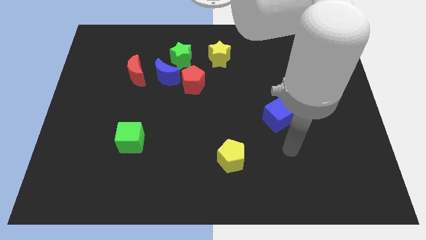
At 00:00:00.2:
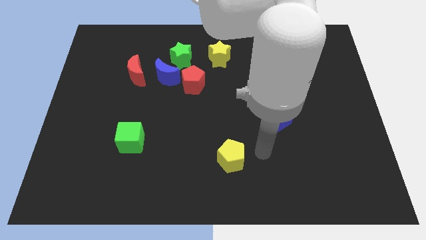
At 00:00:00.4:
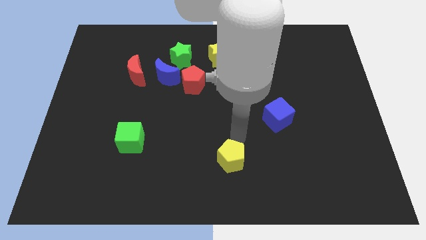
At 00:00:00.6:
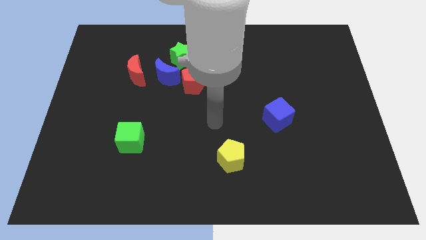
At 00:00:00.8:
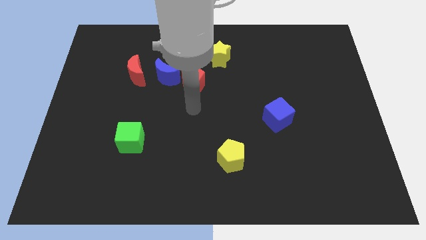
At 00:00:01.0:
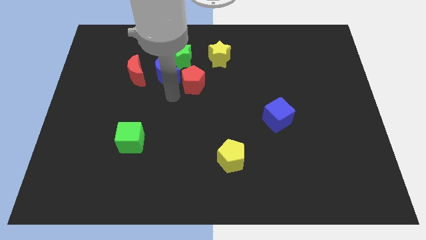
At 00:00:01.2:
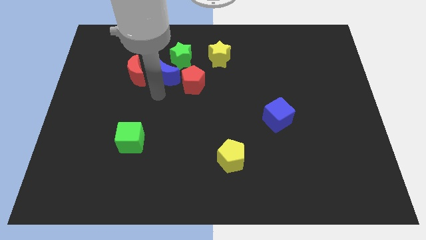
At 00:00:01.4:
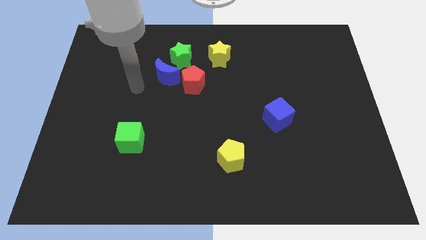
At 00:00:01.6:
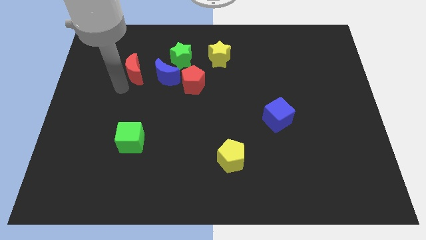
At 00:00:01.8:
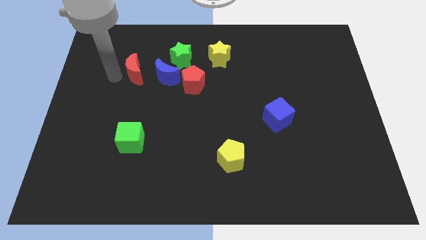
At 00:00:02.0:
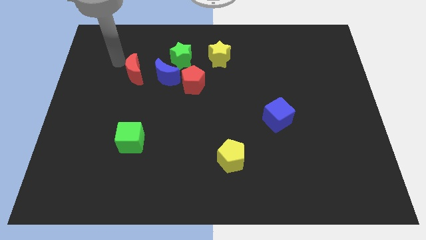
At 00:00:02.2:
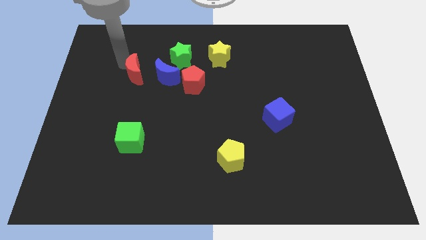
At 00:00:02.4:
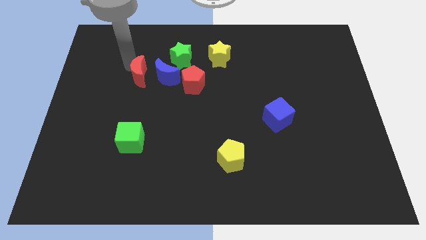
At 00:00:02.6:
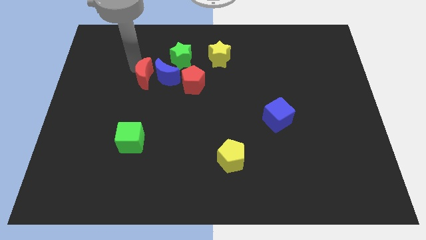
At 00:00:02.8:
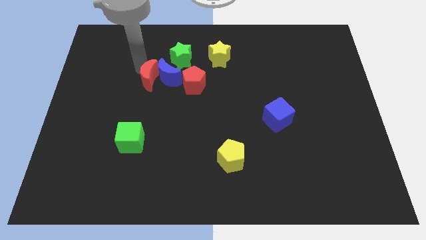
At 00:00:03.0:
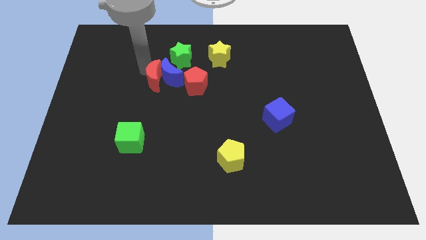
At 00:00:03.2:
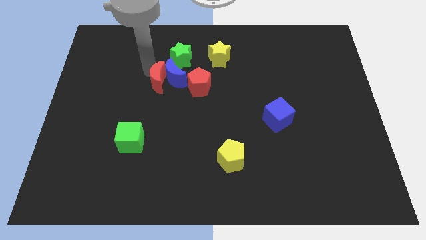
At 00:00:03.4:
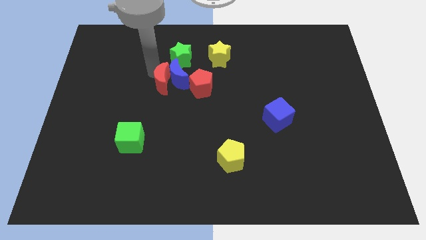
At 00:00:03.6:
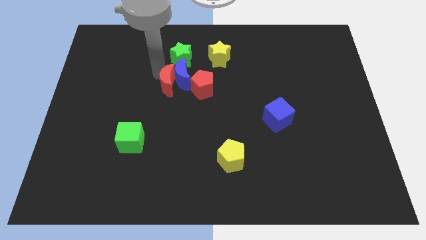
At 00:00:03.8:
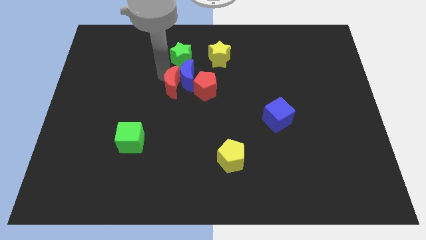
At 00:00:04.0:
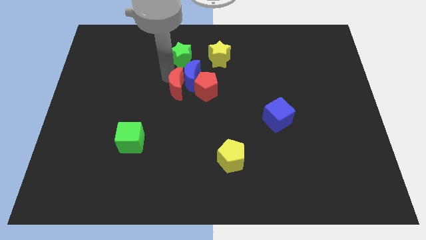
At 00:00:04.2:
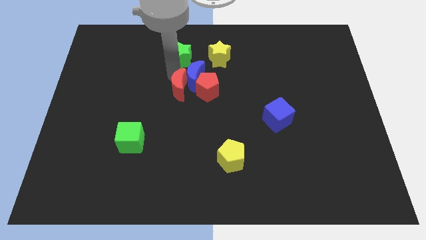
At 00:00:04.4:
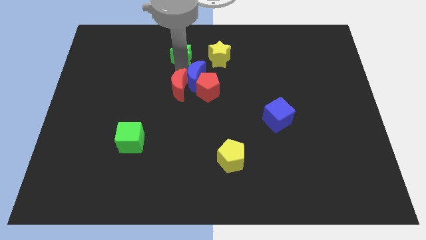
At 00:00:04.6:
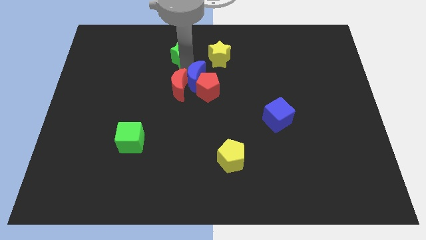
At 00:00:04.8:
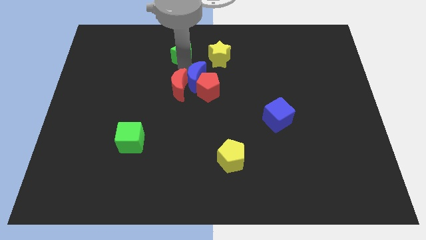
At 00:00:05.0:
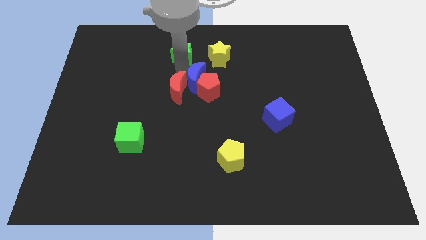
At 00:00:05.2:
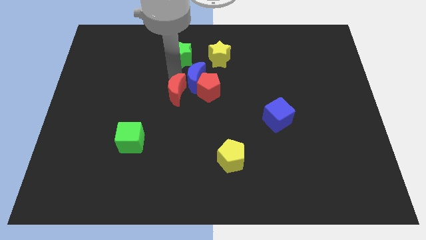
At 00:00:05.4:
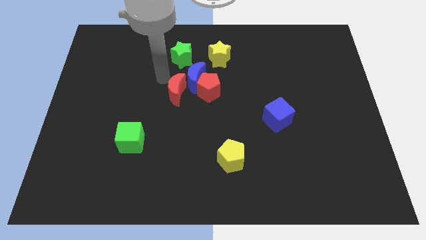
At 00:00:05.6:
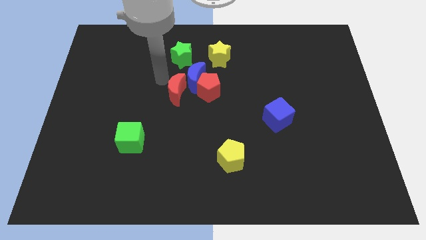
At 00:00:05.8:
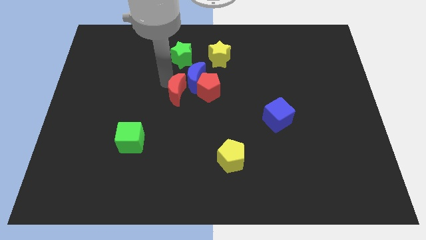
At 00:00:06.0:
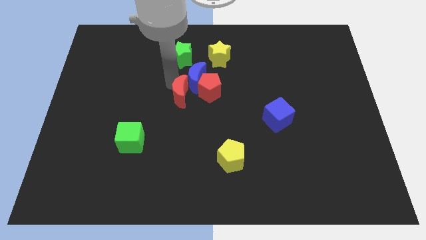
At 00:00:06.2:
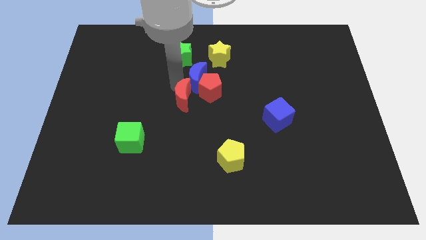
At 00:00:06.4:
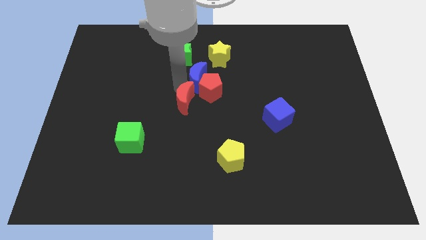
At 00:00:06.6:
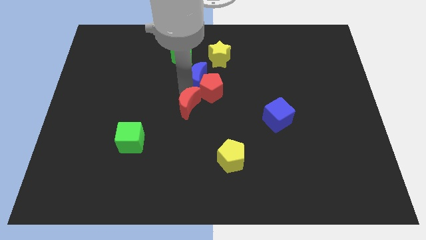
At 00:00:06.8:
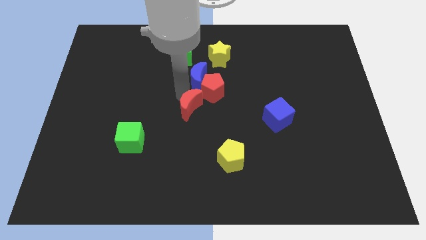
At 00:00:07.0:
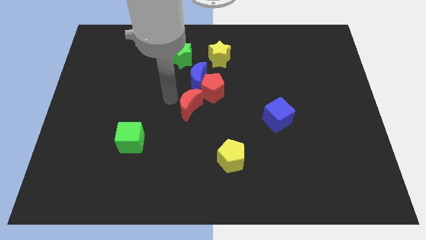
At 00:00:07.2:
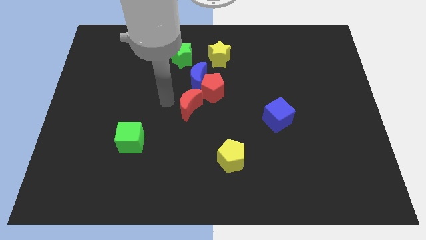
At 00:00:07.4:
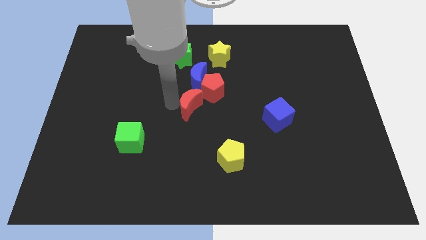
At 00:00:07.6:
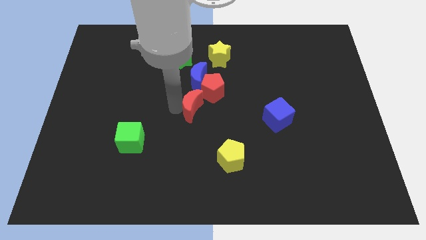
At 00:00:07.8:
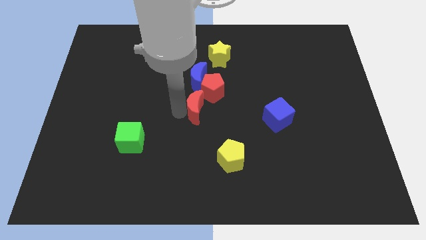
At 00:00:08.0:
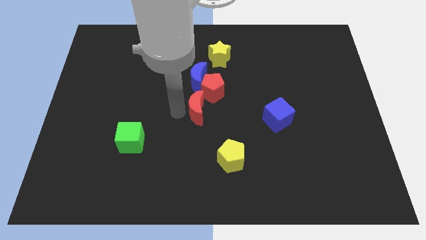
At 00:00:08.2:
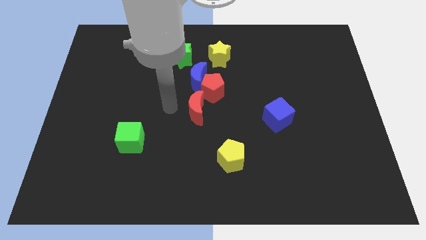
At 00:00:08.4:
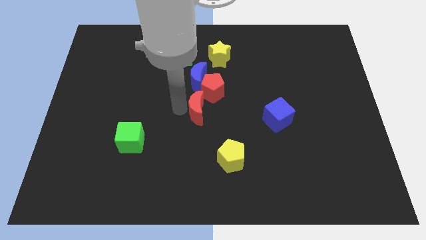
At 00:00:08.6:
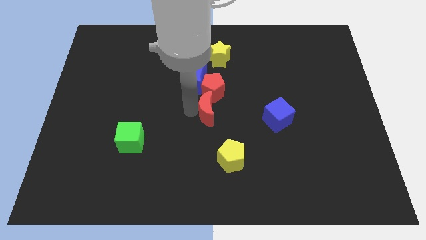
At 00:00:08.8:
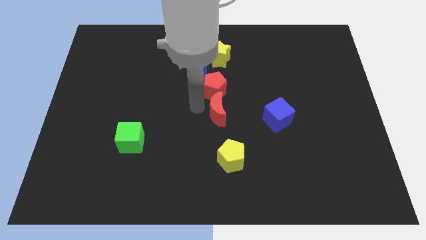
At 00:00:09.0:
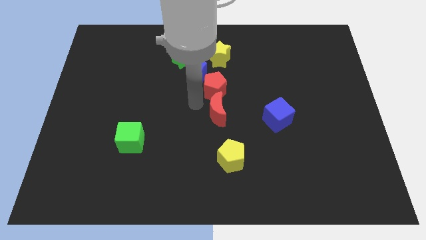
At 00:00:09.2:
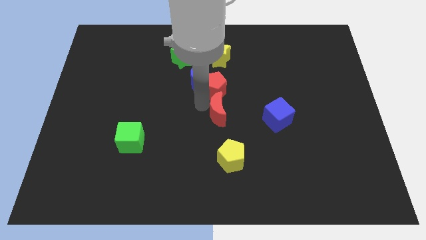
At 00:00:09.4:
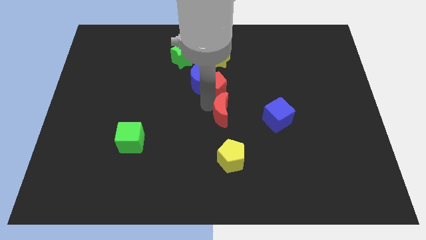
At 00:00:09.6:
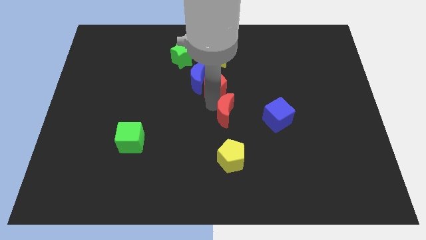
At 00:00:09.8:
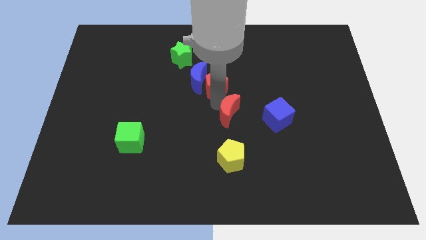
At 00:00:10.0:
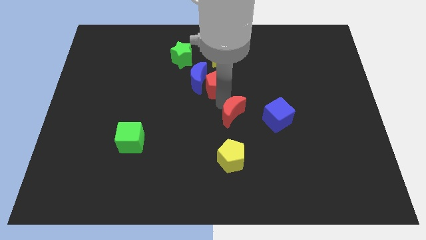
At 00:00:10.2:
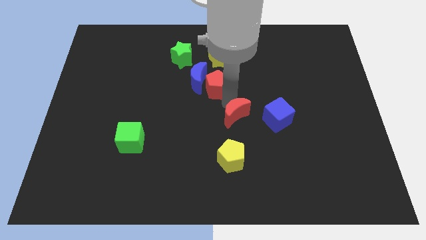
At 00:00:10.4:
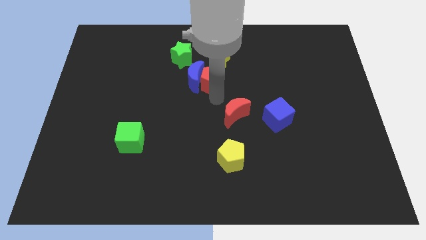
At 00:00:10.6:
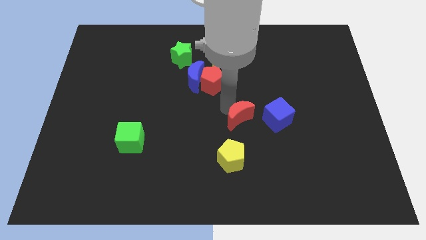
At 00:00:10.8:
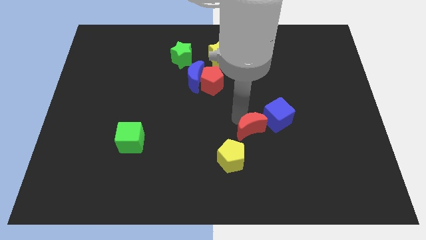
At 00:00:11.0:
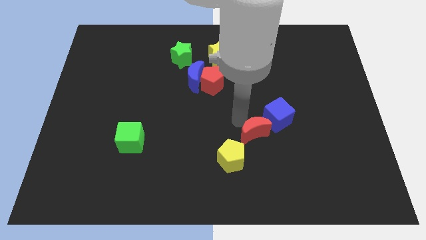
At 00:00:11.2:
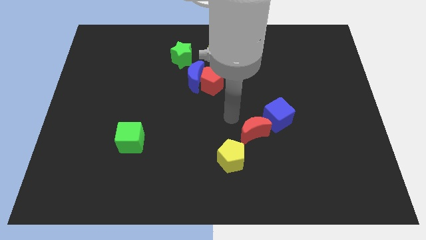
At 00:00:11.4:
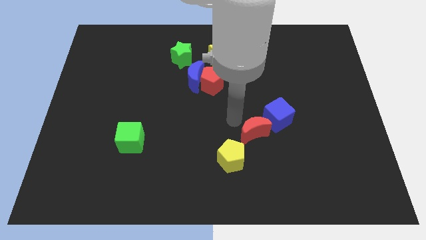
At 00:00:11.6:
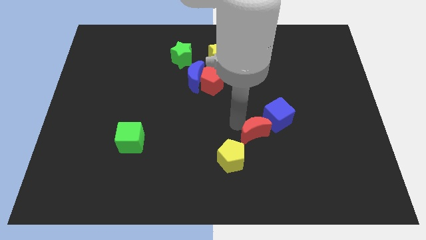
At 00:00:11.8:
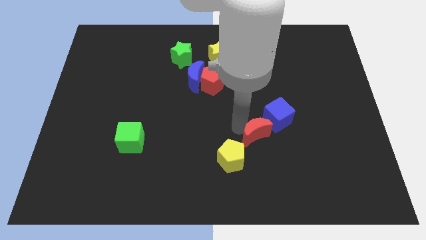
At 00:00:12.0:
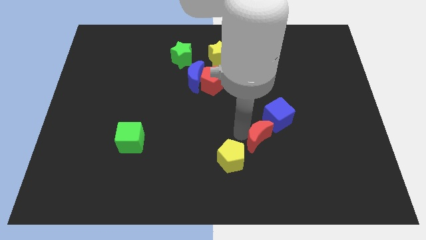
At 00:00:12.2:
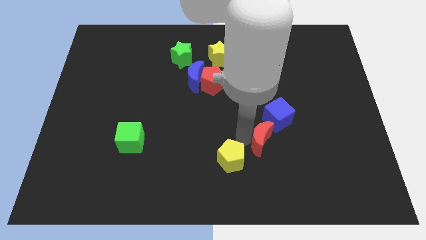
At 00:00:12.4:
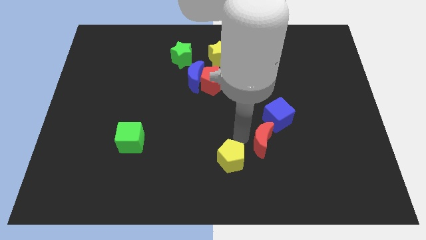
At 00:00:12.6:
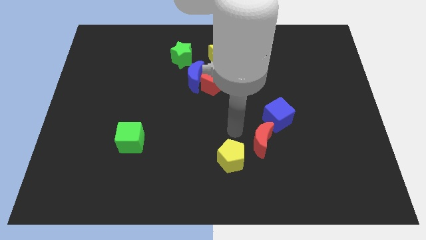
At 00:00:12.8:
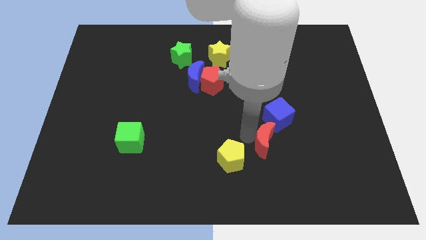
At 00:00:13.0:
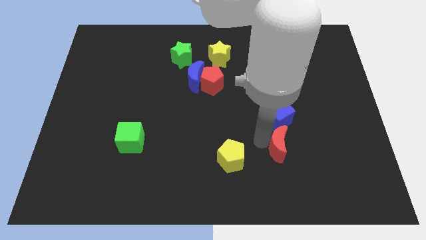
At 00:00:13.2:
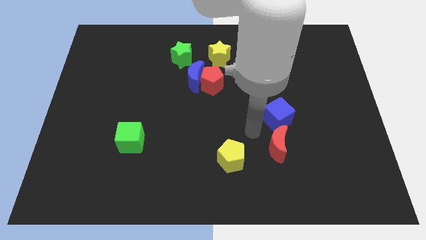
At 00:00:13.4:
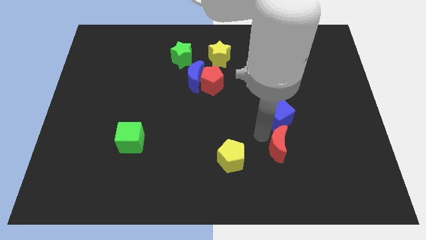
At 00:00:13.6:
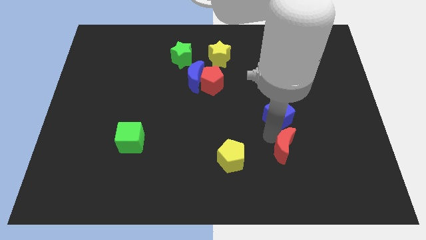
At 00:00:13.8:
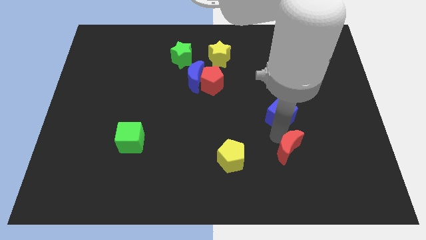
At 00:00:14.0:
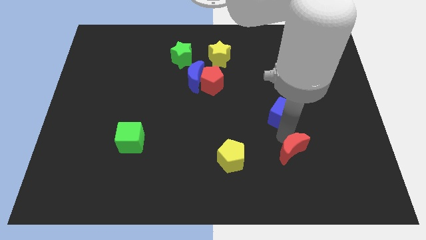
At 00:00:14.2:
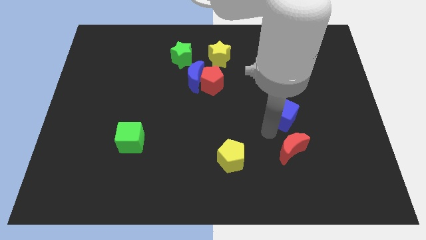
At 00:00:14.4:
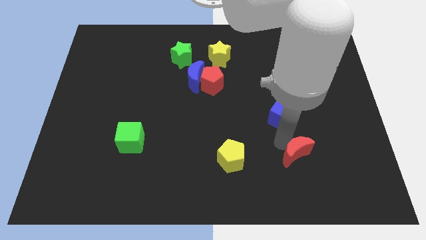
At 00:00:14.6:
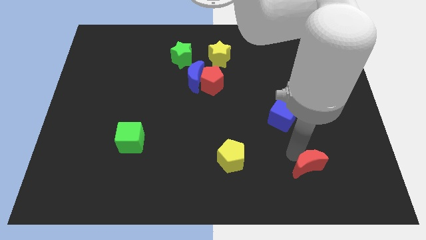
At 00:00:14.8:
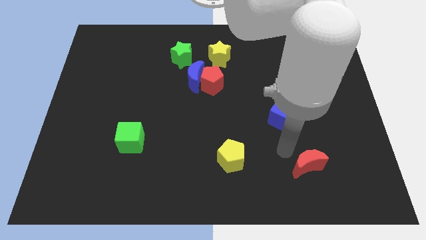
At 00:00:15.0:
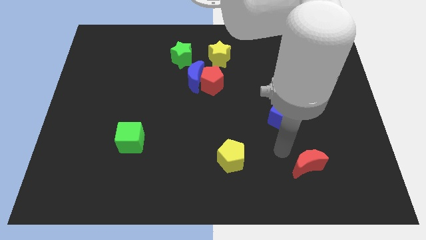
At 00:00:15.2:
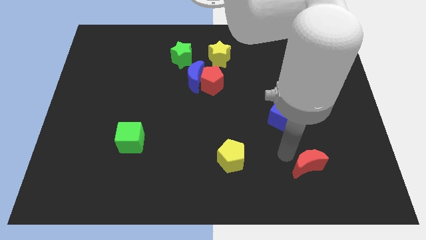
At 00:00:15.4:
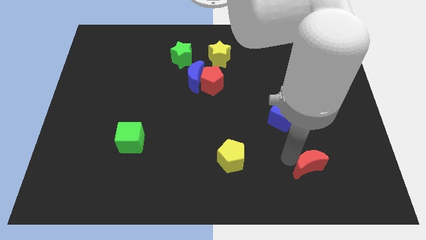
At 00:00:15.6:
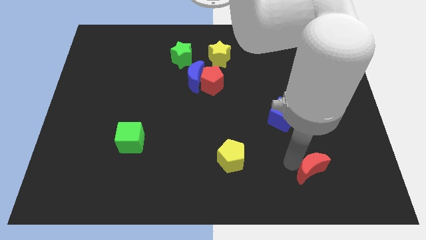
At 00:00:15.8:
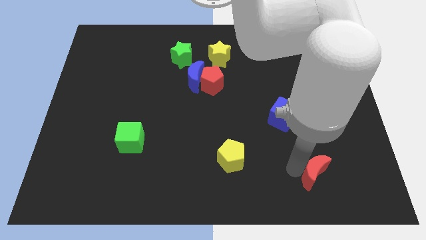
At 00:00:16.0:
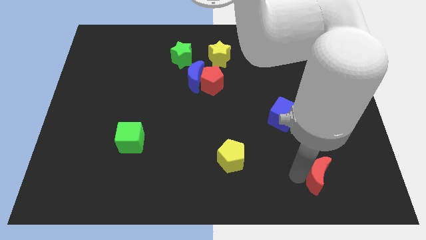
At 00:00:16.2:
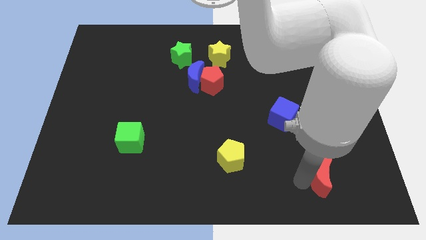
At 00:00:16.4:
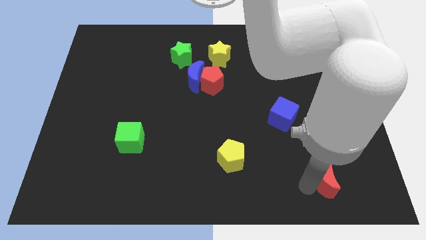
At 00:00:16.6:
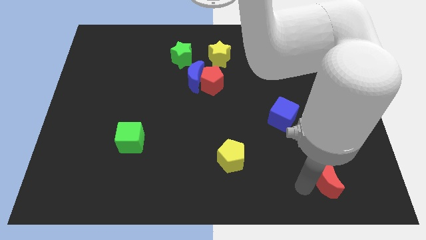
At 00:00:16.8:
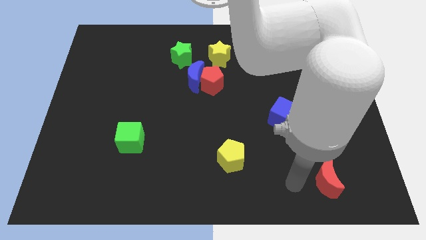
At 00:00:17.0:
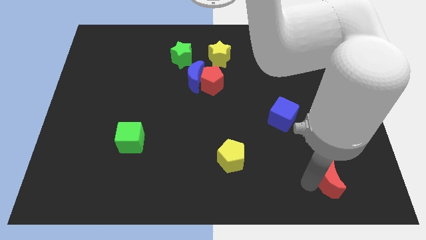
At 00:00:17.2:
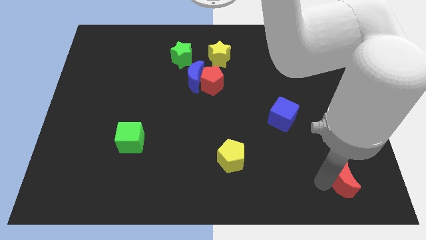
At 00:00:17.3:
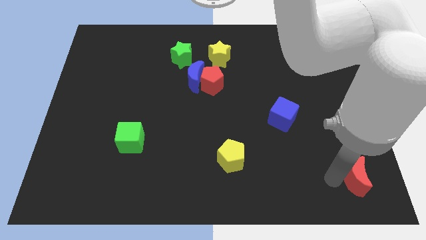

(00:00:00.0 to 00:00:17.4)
slide the red moon to the bottom right
